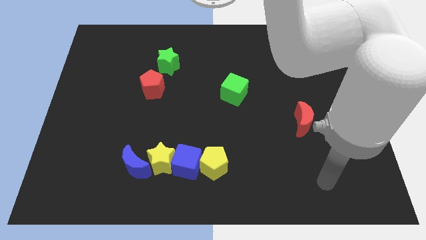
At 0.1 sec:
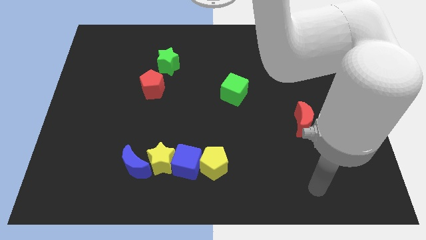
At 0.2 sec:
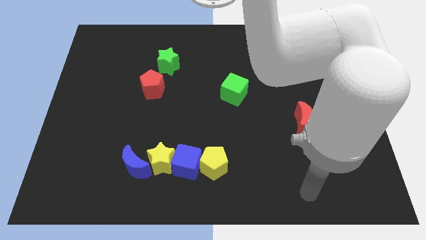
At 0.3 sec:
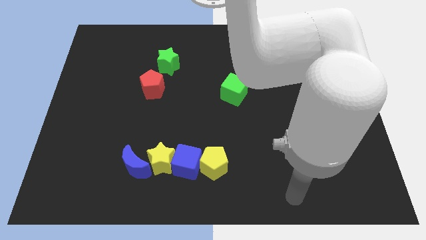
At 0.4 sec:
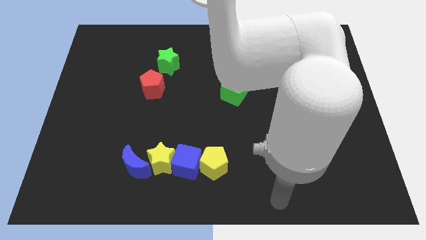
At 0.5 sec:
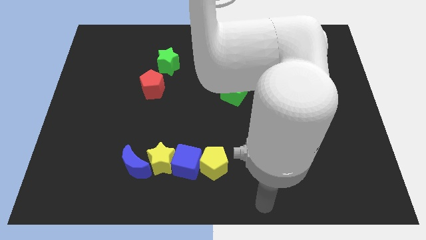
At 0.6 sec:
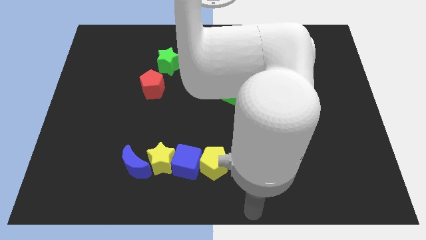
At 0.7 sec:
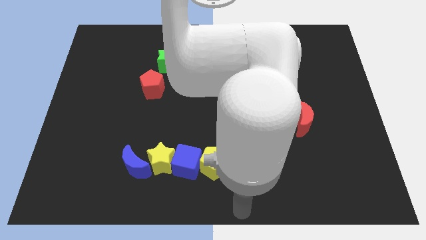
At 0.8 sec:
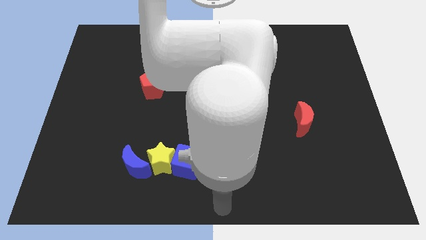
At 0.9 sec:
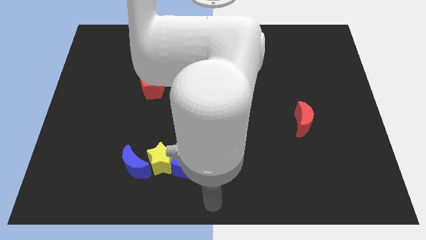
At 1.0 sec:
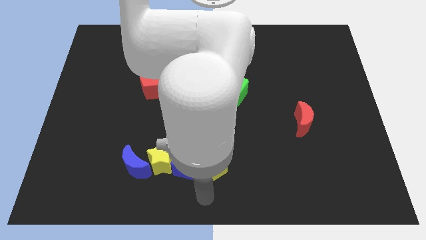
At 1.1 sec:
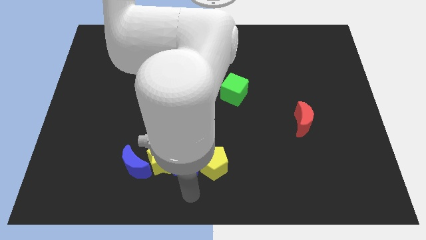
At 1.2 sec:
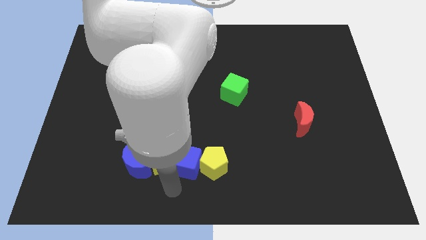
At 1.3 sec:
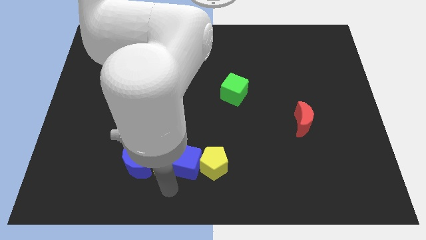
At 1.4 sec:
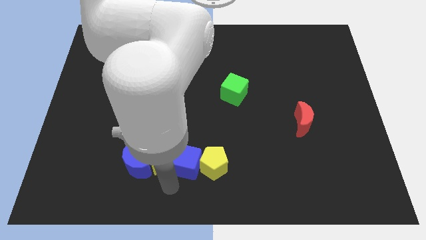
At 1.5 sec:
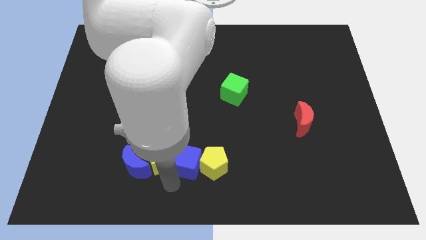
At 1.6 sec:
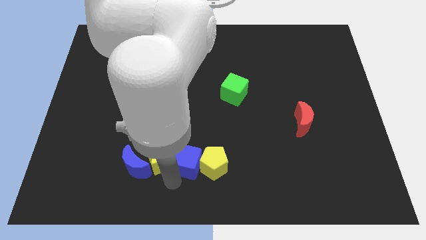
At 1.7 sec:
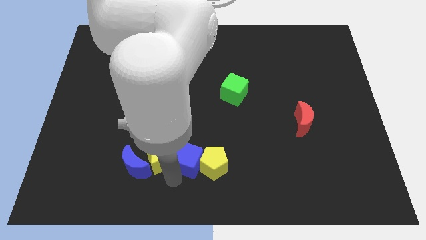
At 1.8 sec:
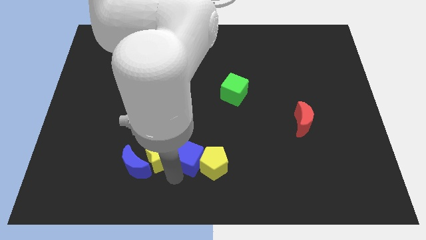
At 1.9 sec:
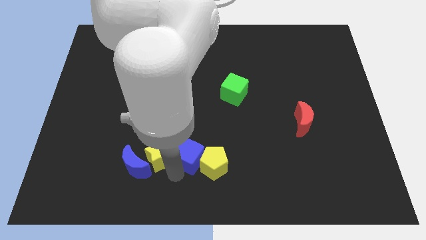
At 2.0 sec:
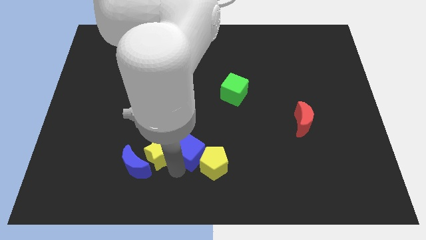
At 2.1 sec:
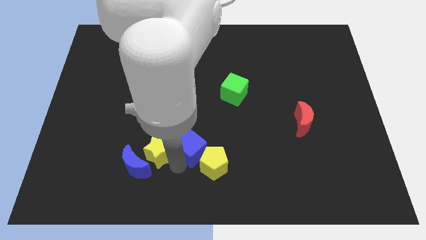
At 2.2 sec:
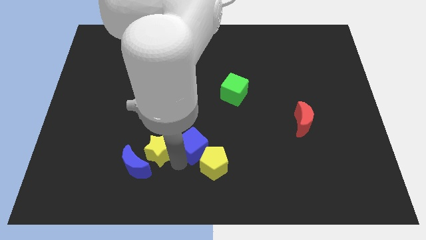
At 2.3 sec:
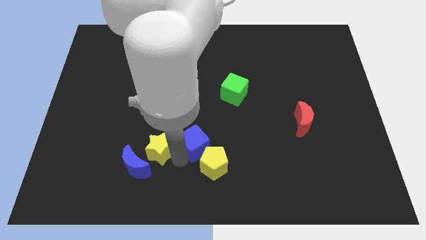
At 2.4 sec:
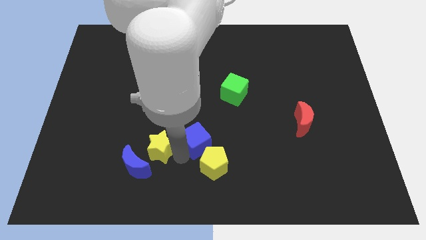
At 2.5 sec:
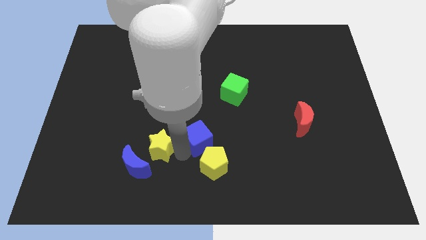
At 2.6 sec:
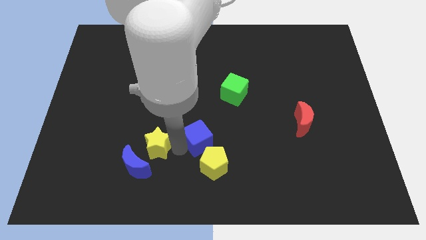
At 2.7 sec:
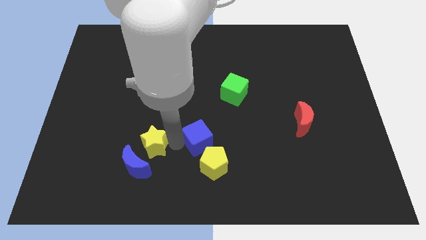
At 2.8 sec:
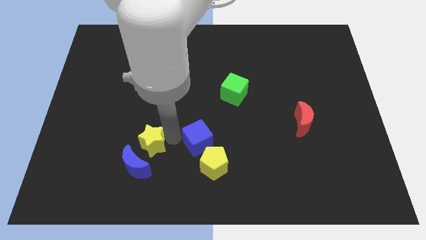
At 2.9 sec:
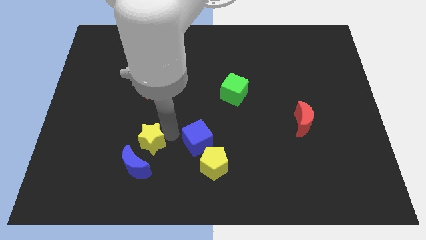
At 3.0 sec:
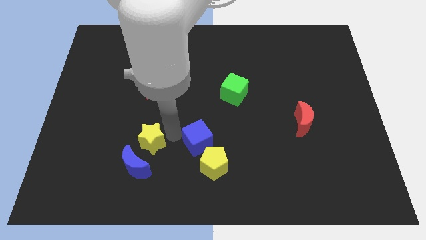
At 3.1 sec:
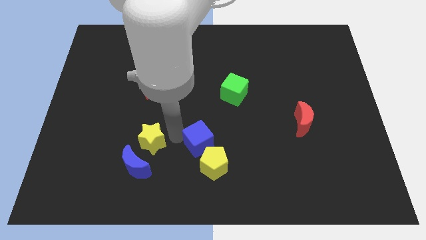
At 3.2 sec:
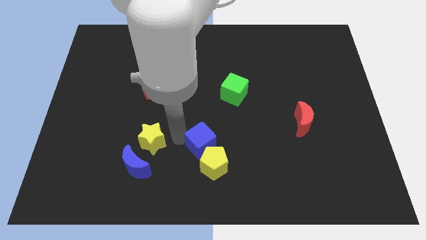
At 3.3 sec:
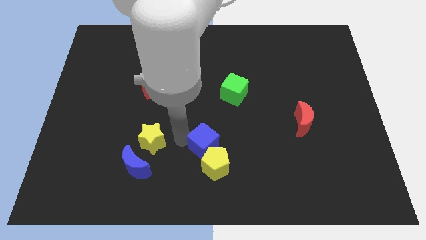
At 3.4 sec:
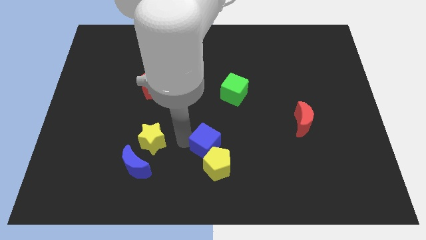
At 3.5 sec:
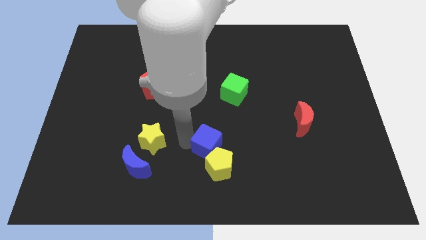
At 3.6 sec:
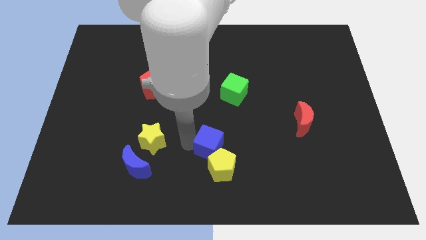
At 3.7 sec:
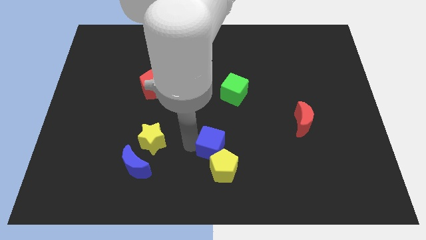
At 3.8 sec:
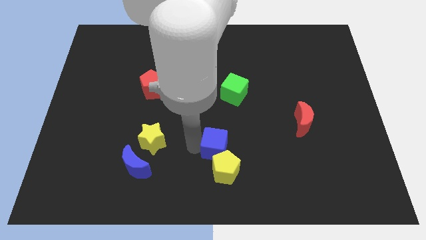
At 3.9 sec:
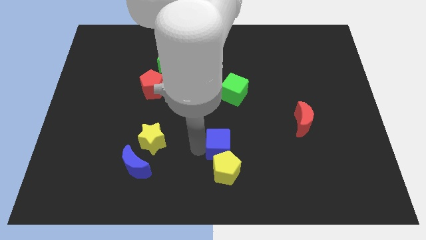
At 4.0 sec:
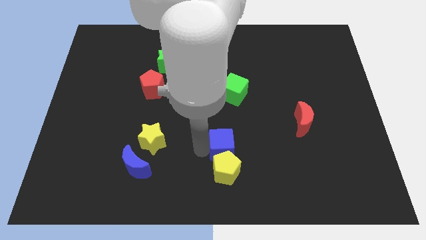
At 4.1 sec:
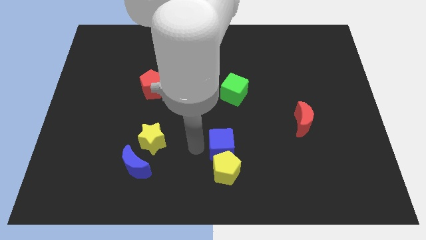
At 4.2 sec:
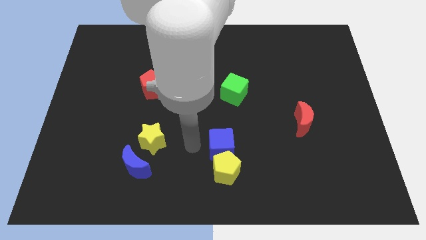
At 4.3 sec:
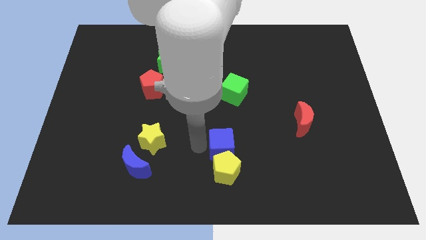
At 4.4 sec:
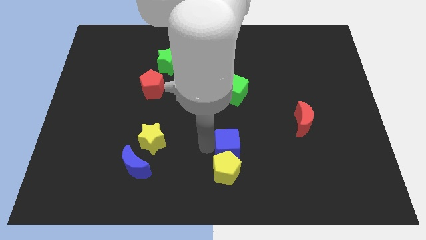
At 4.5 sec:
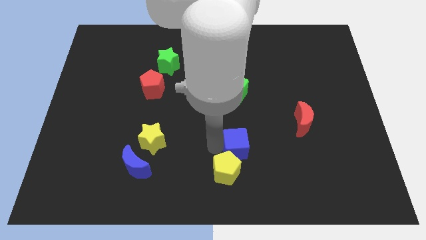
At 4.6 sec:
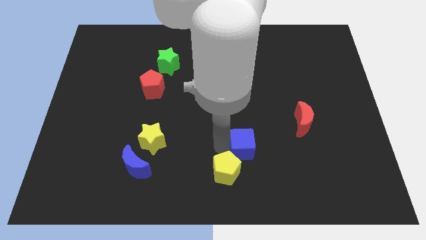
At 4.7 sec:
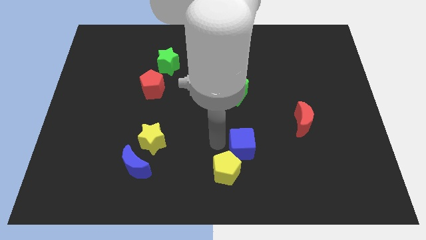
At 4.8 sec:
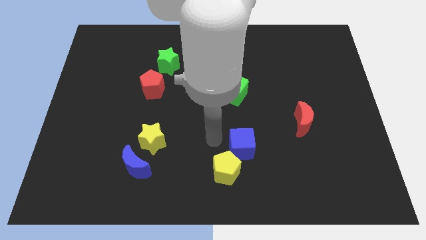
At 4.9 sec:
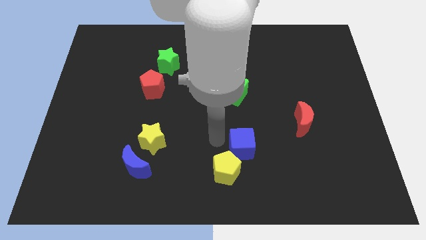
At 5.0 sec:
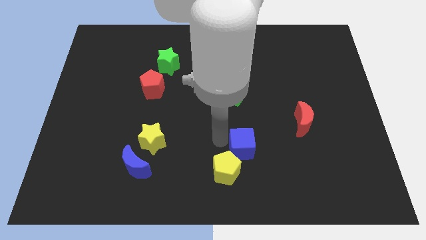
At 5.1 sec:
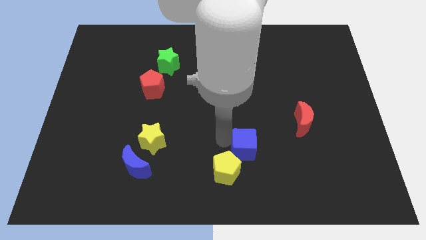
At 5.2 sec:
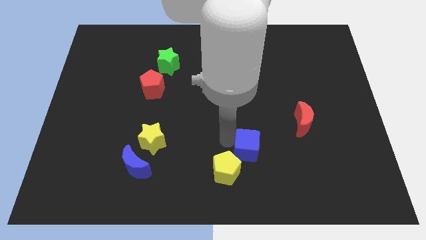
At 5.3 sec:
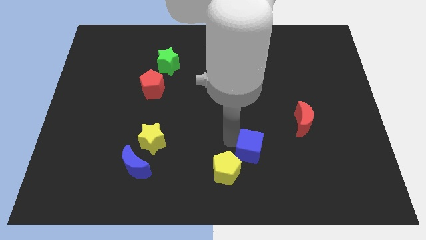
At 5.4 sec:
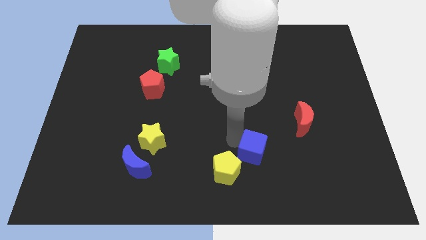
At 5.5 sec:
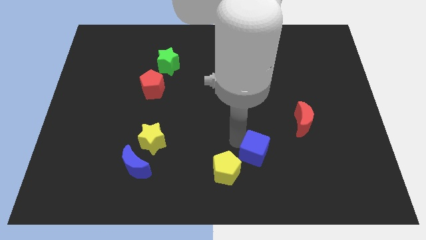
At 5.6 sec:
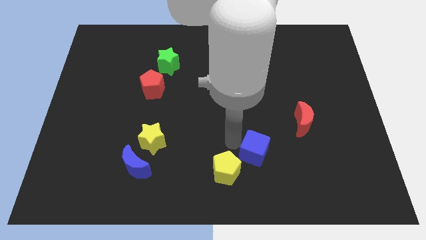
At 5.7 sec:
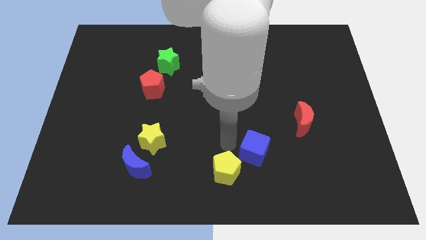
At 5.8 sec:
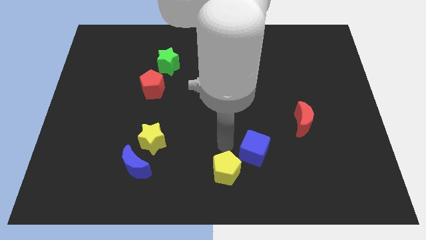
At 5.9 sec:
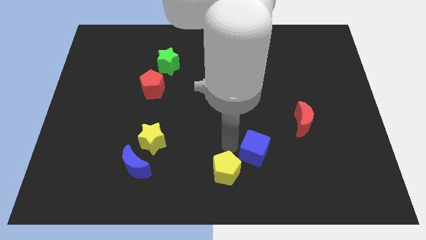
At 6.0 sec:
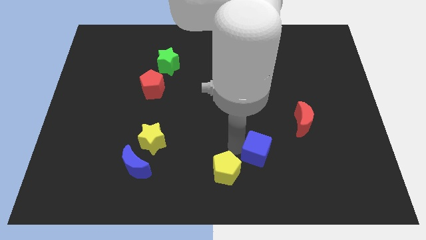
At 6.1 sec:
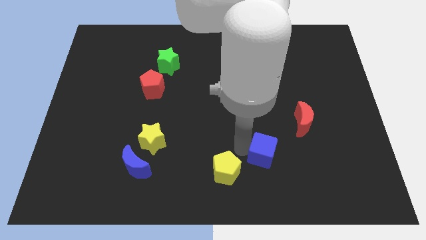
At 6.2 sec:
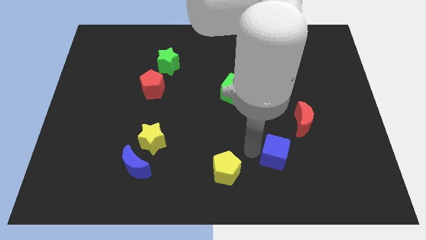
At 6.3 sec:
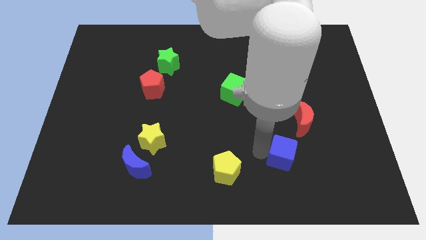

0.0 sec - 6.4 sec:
push the blue cube right

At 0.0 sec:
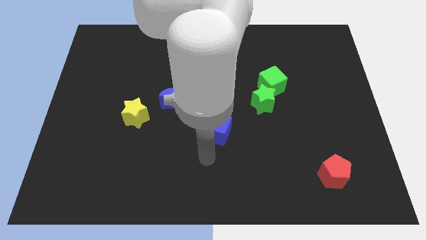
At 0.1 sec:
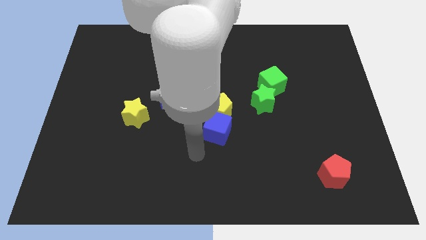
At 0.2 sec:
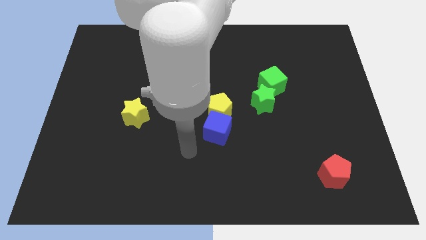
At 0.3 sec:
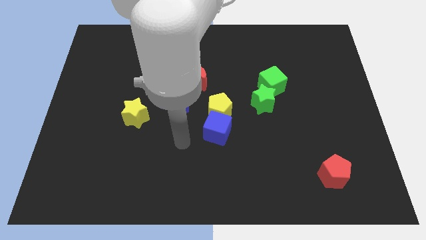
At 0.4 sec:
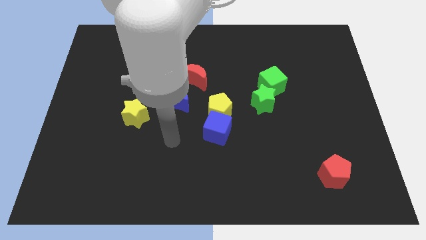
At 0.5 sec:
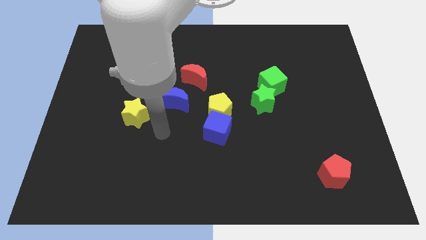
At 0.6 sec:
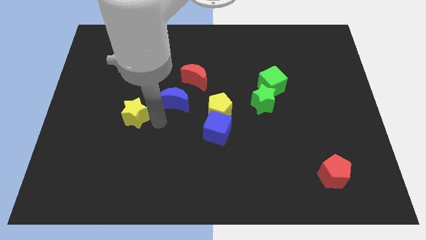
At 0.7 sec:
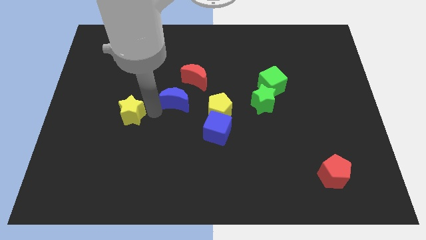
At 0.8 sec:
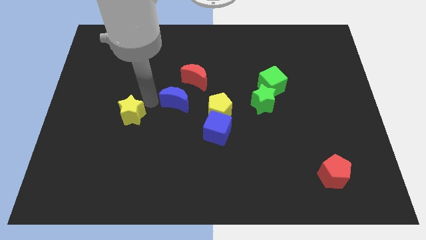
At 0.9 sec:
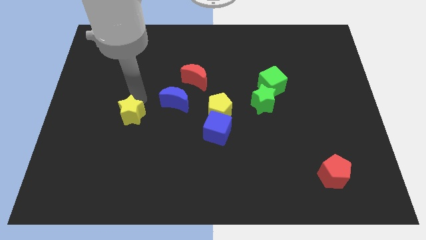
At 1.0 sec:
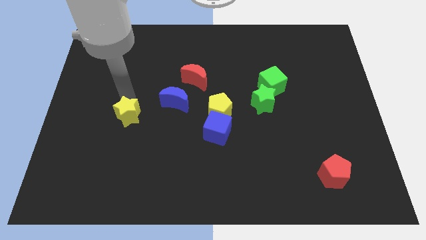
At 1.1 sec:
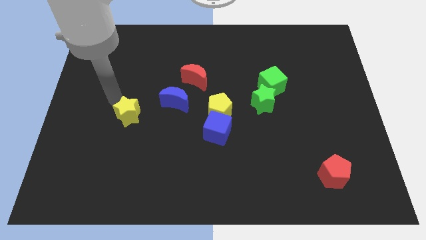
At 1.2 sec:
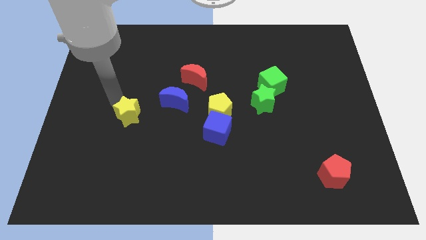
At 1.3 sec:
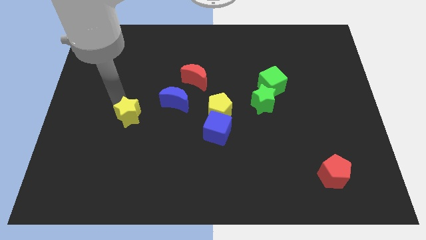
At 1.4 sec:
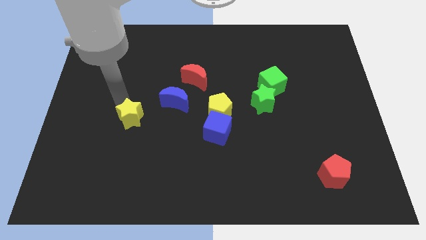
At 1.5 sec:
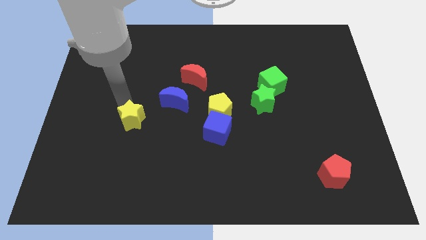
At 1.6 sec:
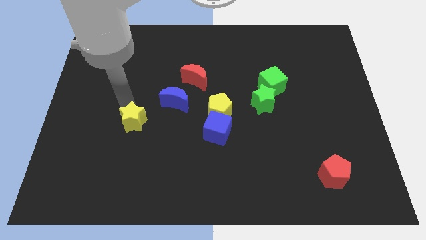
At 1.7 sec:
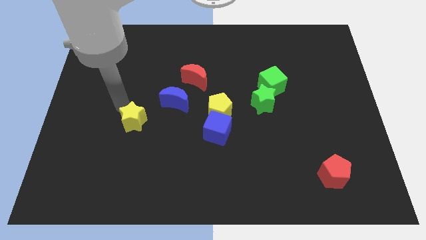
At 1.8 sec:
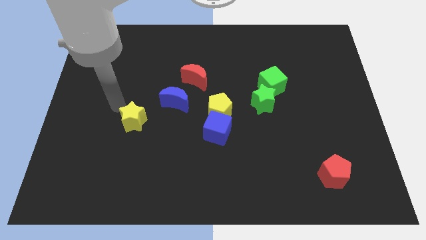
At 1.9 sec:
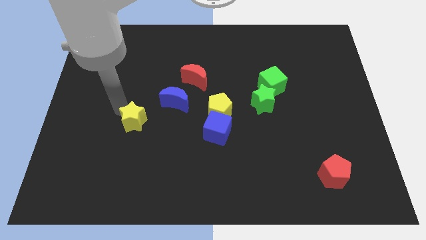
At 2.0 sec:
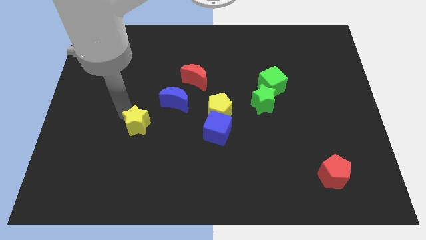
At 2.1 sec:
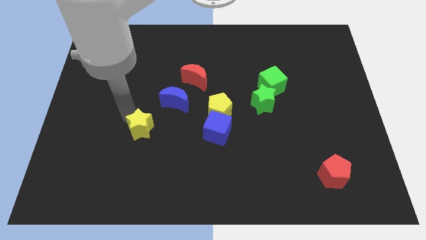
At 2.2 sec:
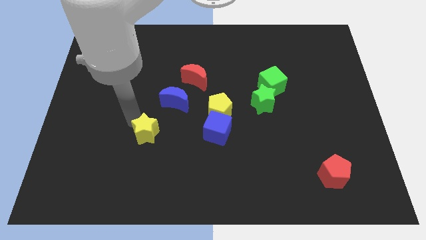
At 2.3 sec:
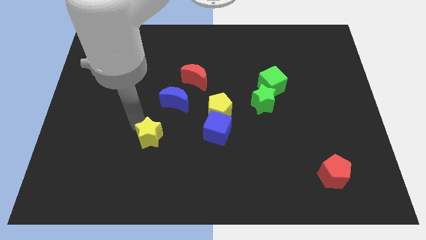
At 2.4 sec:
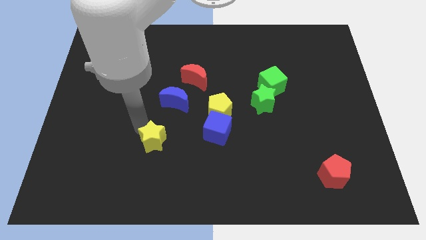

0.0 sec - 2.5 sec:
move the yellow star downwards and right diagonally a little bit
